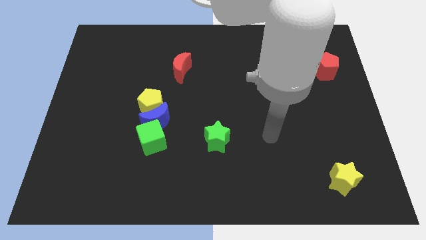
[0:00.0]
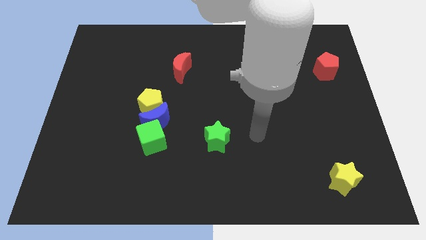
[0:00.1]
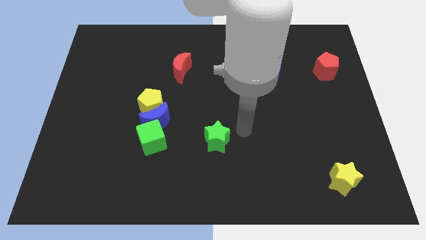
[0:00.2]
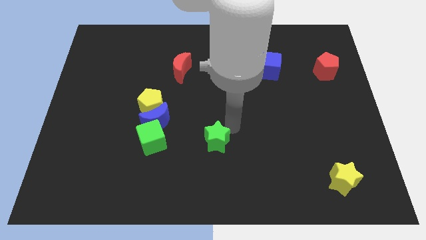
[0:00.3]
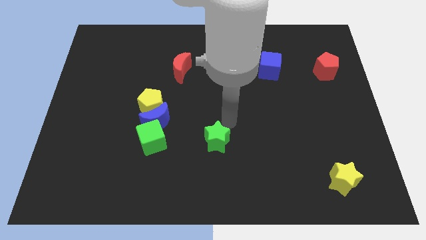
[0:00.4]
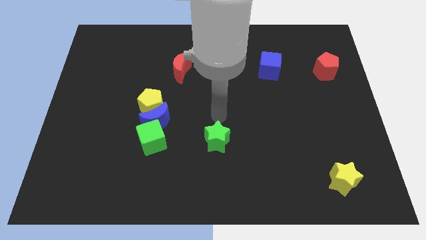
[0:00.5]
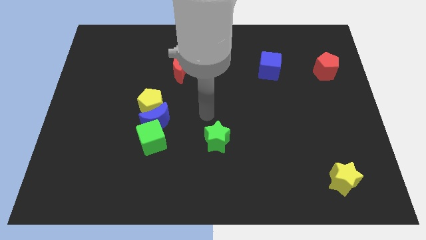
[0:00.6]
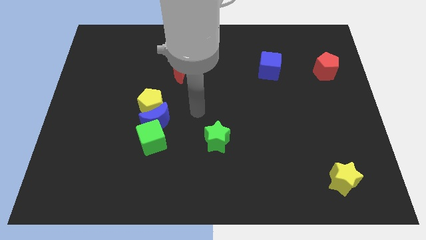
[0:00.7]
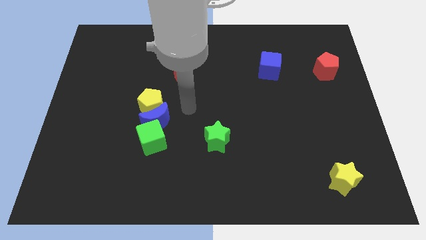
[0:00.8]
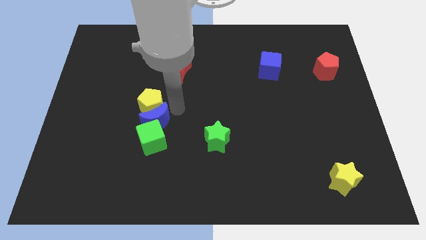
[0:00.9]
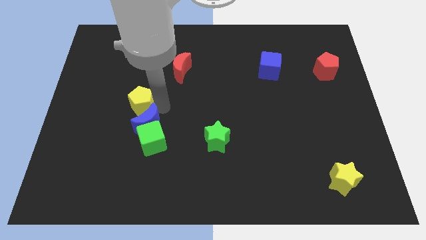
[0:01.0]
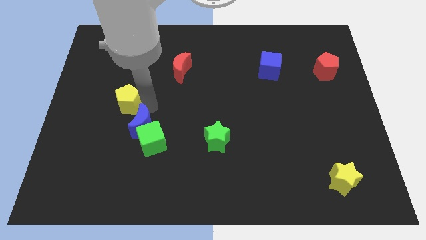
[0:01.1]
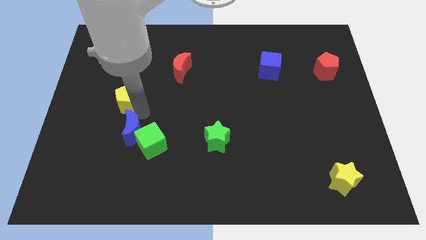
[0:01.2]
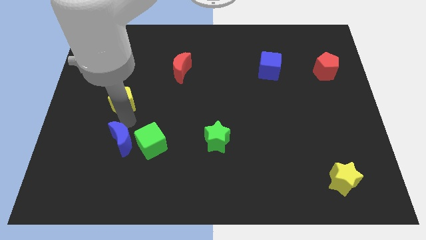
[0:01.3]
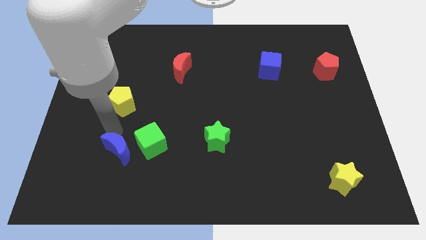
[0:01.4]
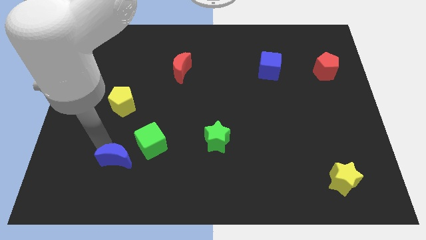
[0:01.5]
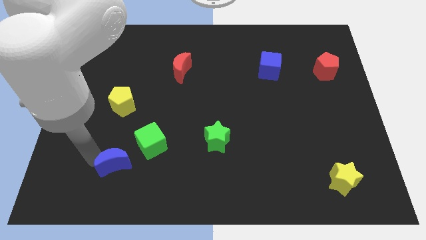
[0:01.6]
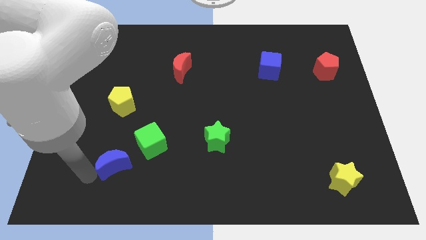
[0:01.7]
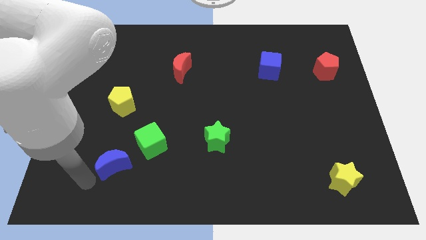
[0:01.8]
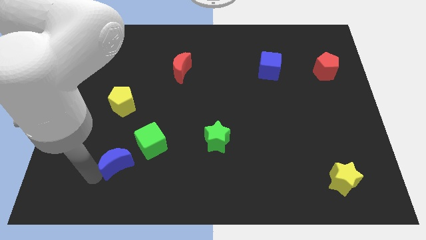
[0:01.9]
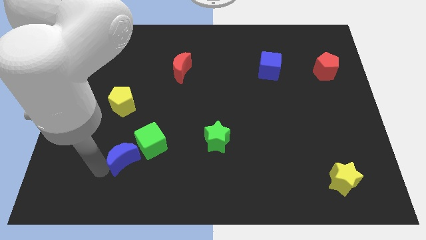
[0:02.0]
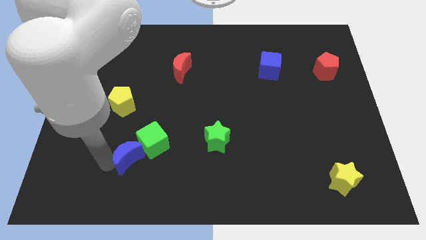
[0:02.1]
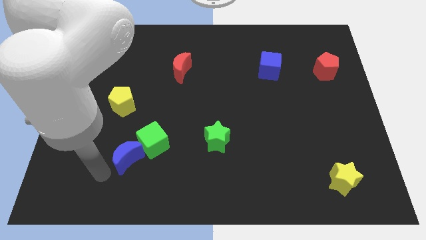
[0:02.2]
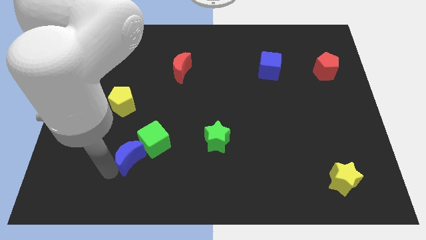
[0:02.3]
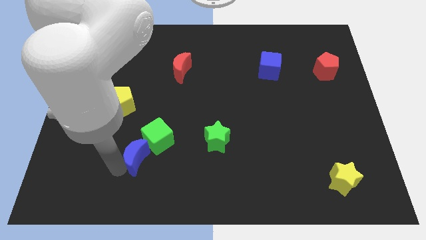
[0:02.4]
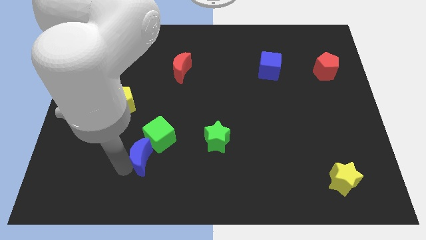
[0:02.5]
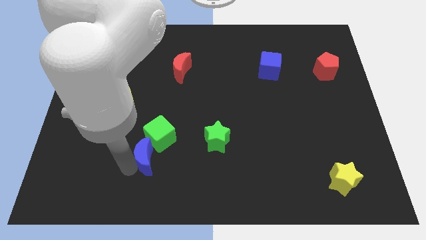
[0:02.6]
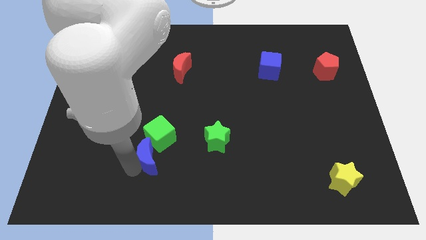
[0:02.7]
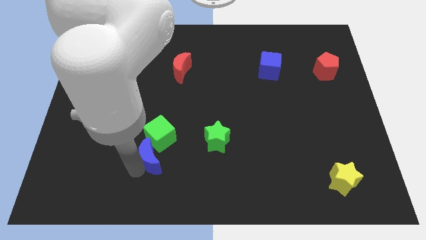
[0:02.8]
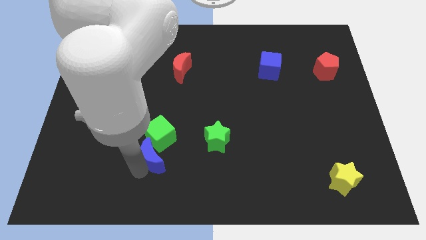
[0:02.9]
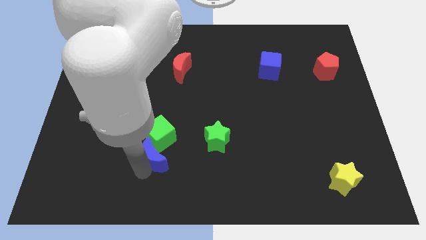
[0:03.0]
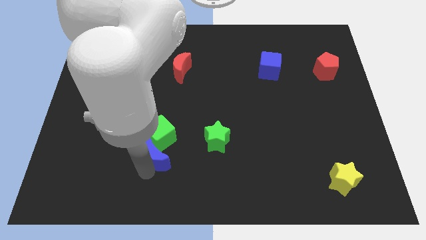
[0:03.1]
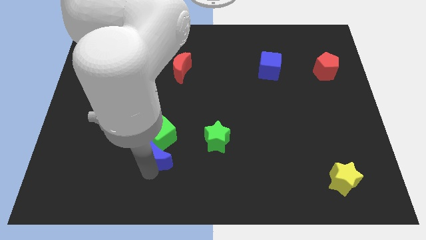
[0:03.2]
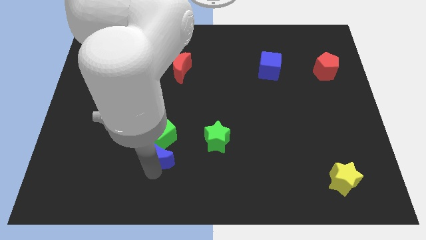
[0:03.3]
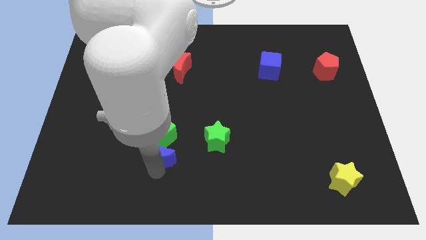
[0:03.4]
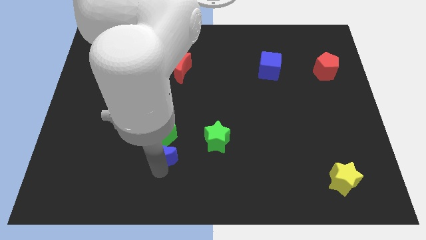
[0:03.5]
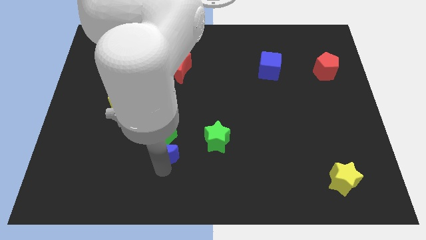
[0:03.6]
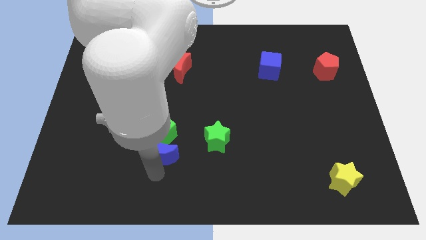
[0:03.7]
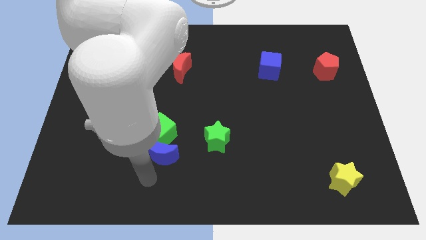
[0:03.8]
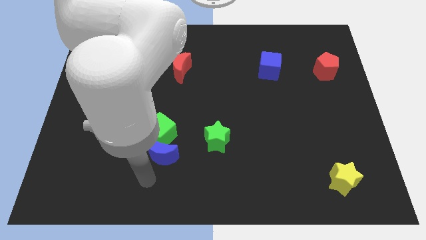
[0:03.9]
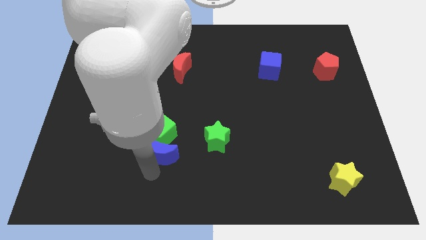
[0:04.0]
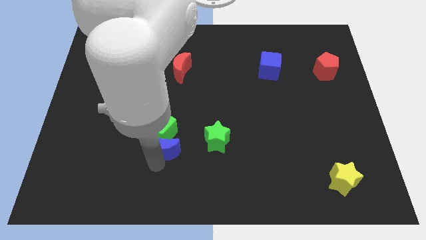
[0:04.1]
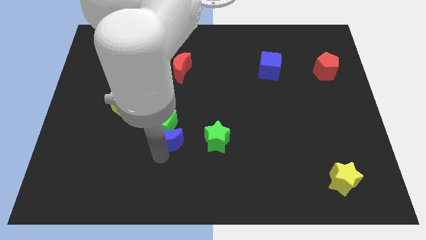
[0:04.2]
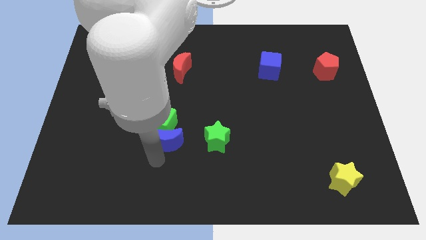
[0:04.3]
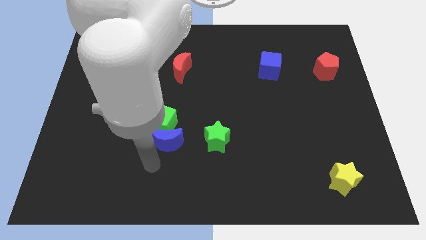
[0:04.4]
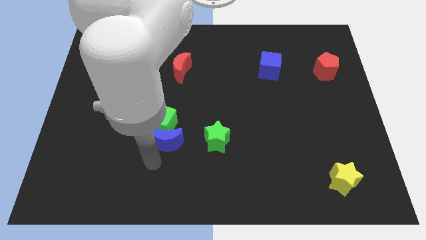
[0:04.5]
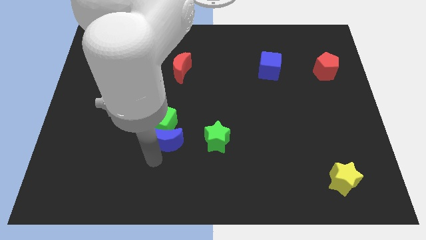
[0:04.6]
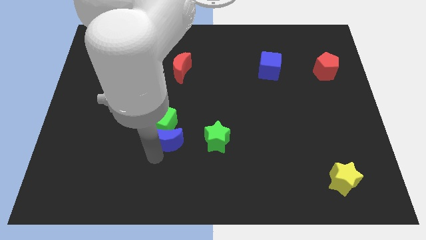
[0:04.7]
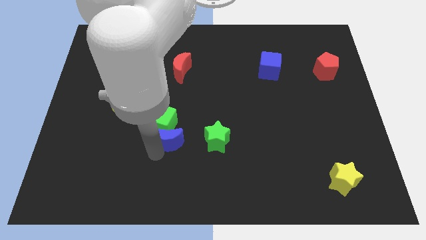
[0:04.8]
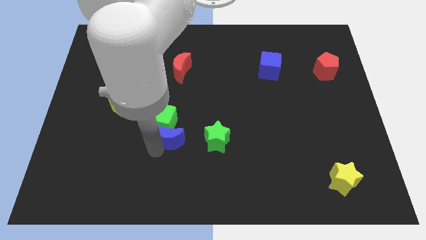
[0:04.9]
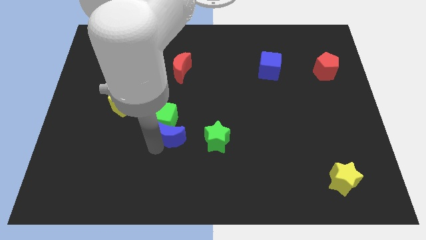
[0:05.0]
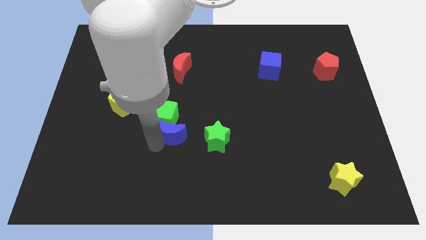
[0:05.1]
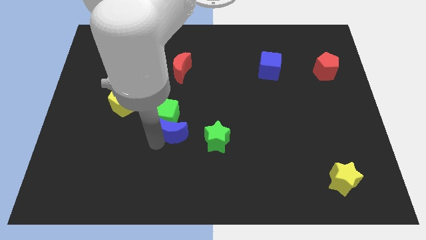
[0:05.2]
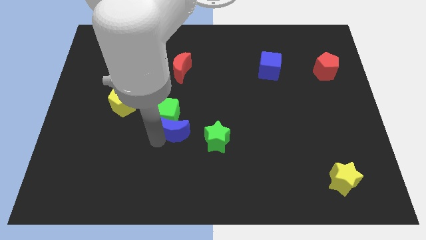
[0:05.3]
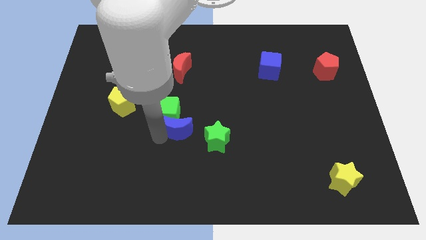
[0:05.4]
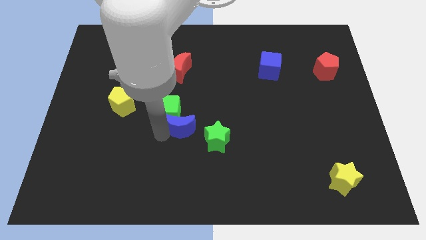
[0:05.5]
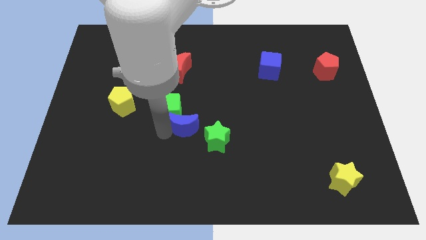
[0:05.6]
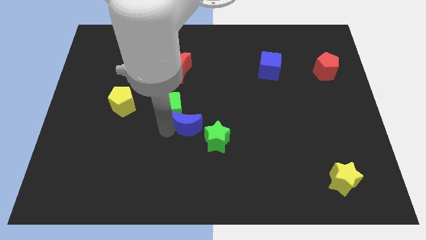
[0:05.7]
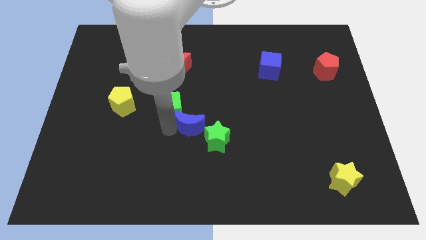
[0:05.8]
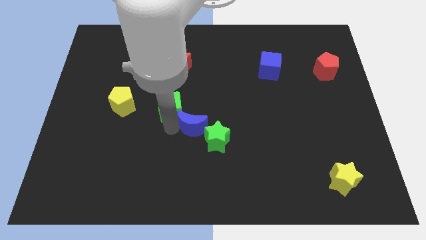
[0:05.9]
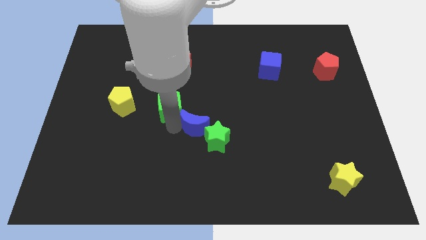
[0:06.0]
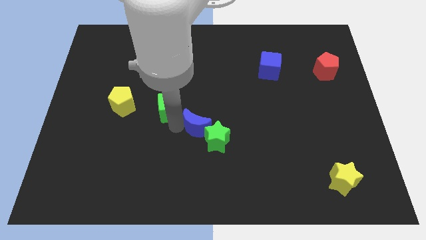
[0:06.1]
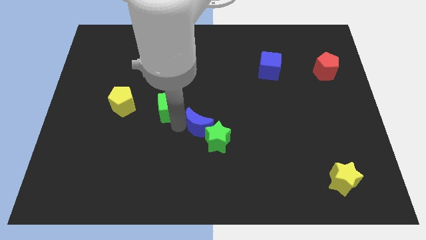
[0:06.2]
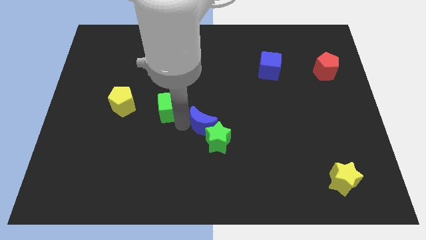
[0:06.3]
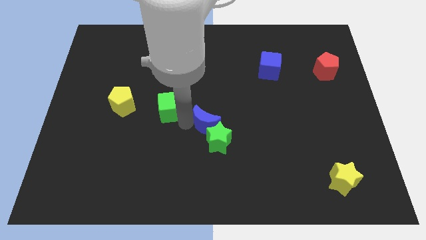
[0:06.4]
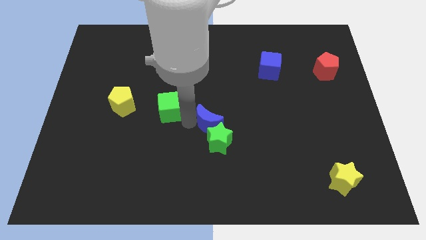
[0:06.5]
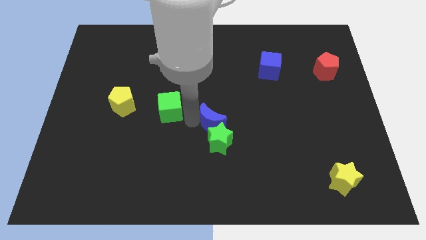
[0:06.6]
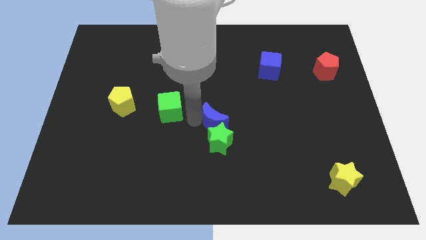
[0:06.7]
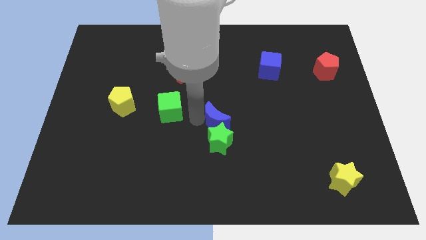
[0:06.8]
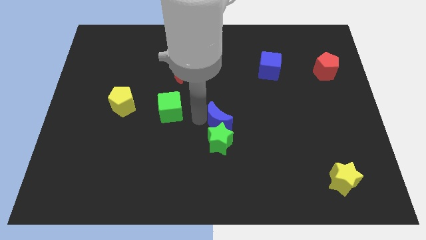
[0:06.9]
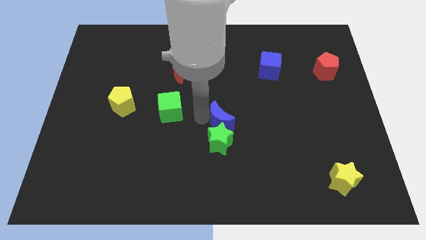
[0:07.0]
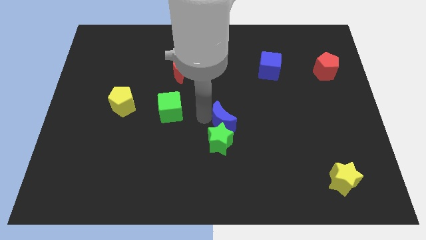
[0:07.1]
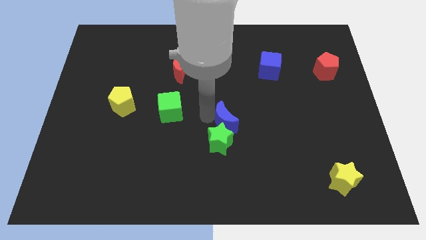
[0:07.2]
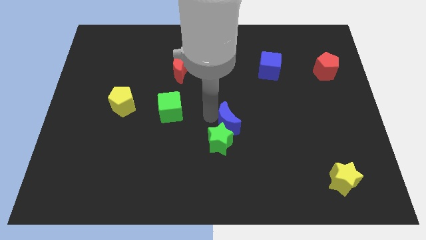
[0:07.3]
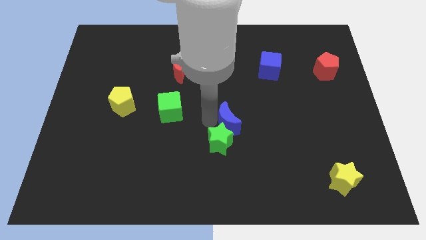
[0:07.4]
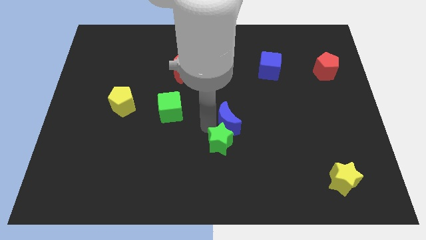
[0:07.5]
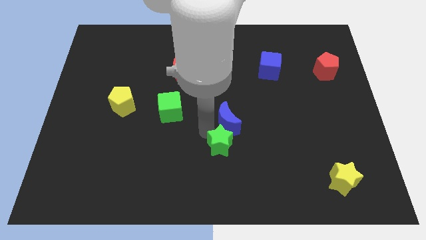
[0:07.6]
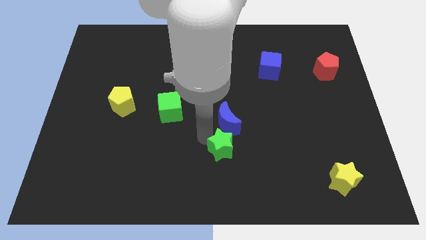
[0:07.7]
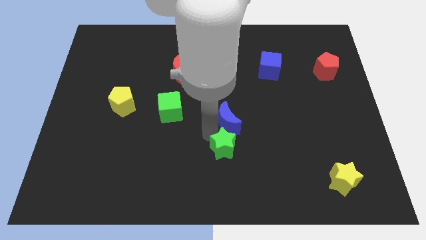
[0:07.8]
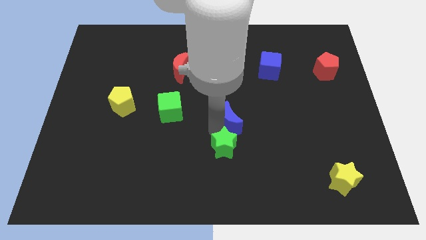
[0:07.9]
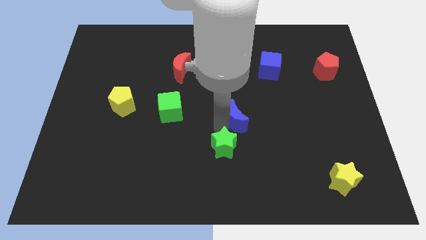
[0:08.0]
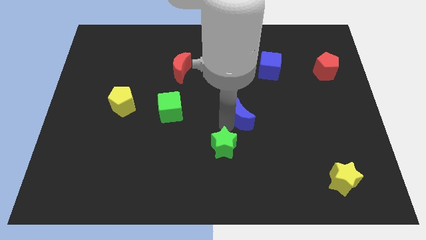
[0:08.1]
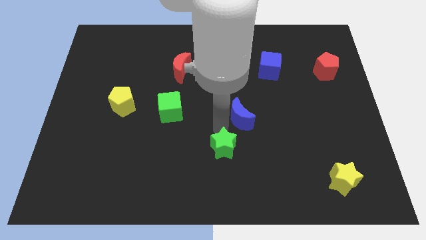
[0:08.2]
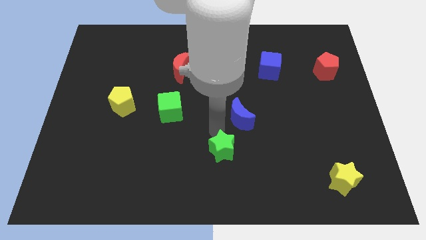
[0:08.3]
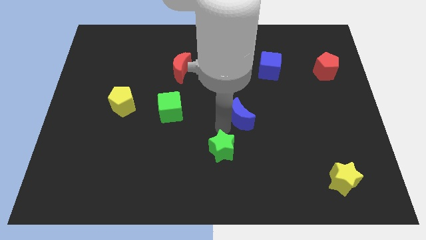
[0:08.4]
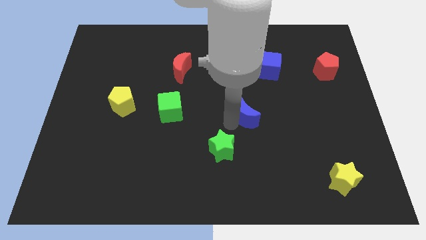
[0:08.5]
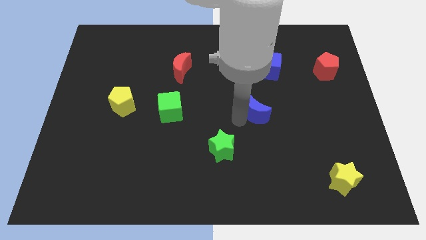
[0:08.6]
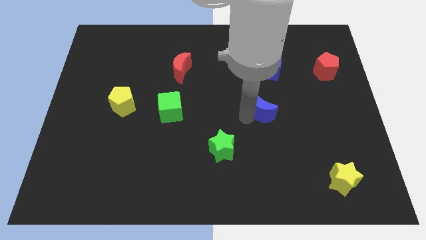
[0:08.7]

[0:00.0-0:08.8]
slide the blue moon to the bottom of the blue cube
